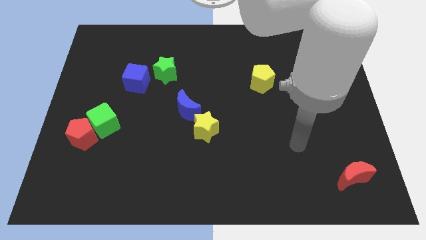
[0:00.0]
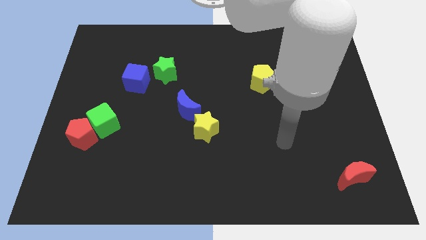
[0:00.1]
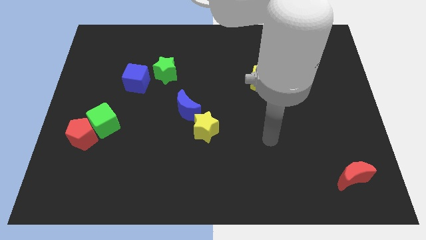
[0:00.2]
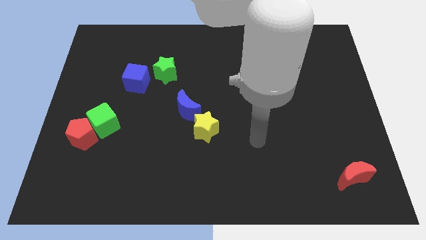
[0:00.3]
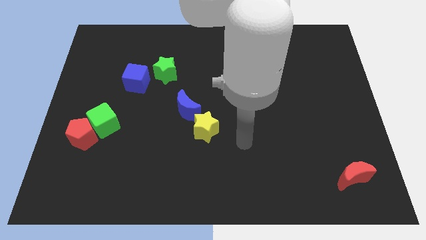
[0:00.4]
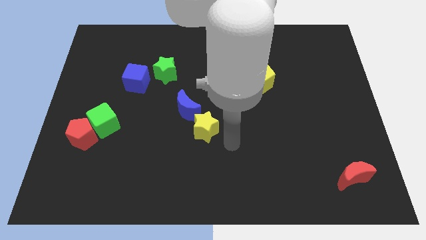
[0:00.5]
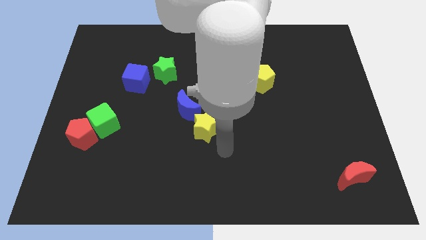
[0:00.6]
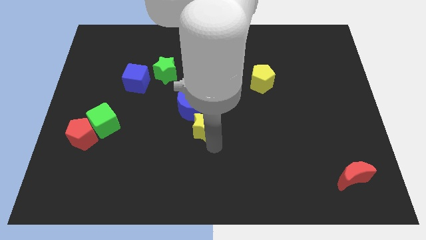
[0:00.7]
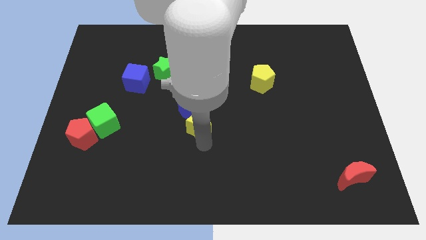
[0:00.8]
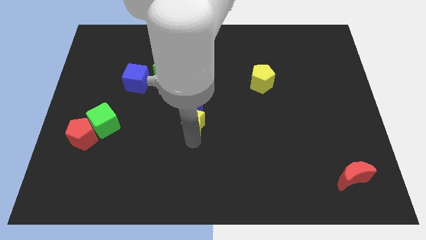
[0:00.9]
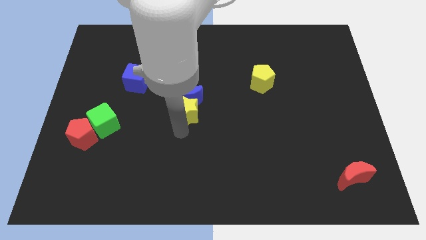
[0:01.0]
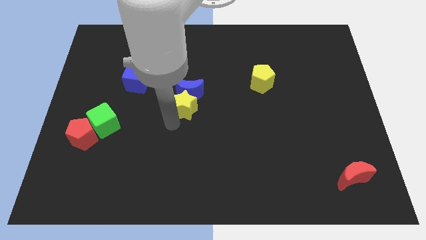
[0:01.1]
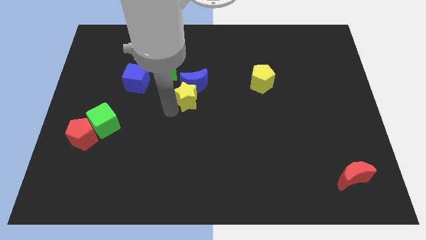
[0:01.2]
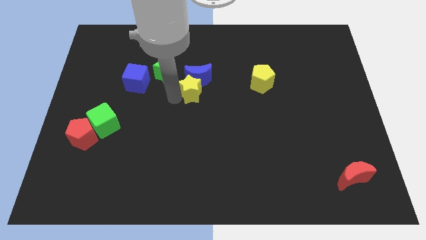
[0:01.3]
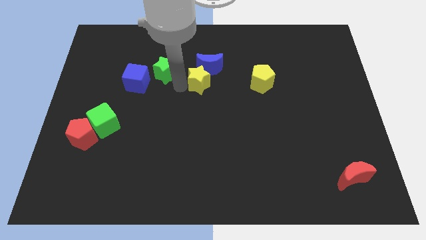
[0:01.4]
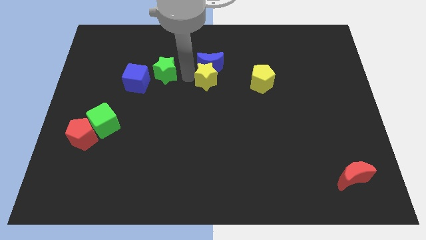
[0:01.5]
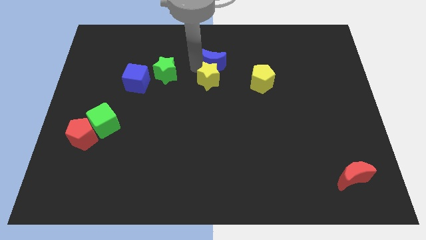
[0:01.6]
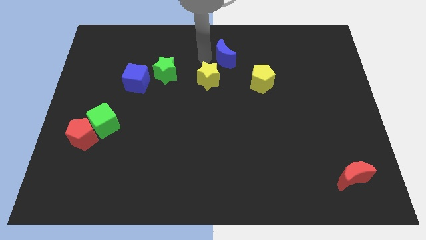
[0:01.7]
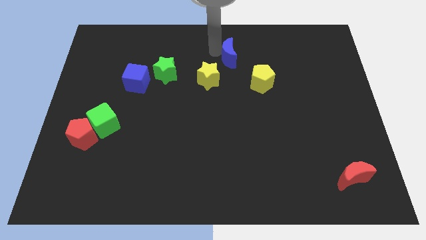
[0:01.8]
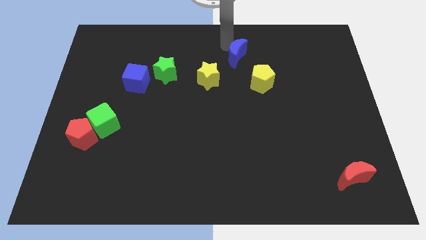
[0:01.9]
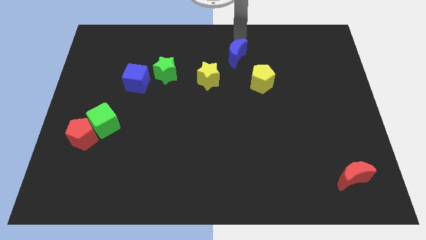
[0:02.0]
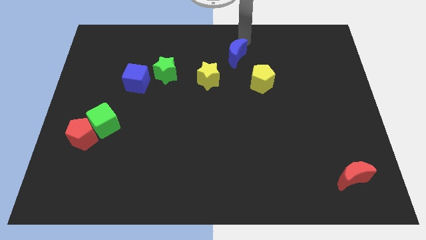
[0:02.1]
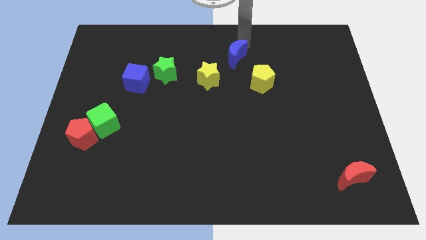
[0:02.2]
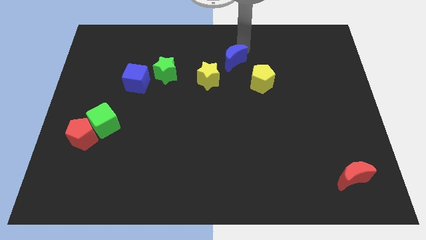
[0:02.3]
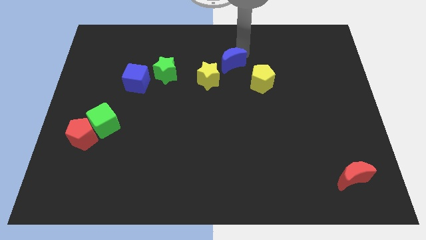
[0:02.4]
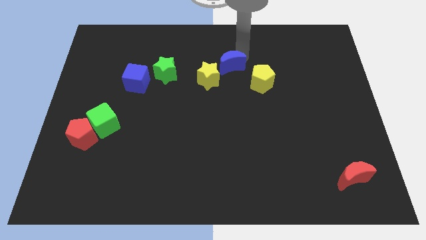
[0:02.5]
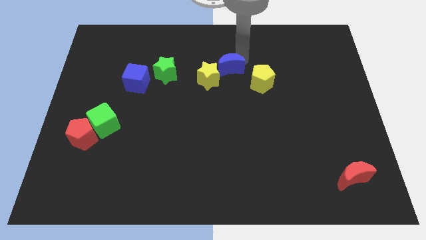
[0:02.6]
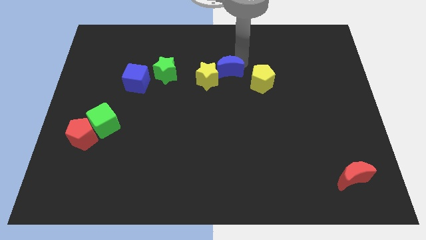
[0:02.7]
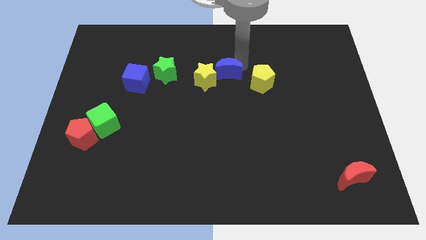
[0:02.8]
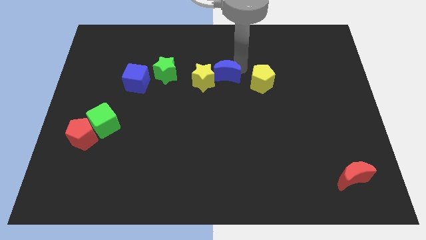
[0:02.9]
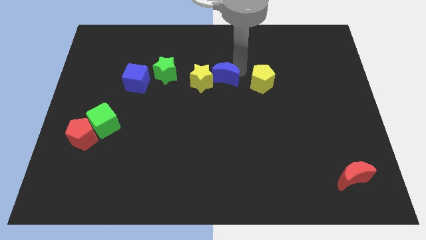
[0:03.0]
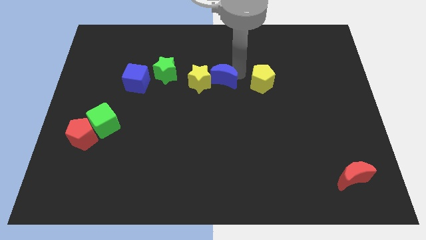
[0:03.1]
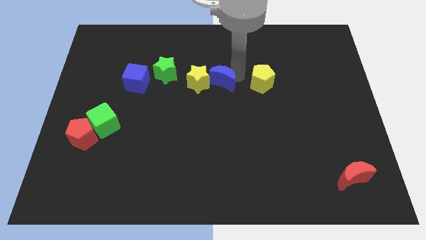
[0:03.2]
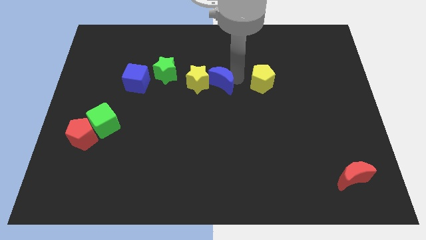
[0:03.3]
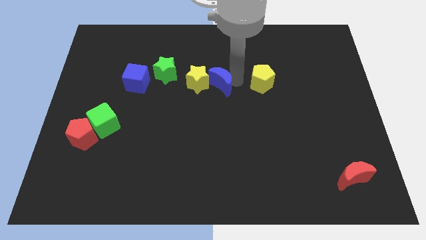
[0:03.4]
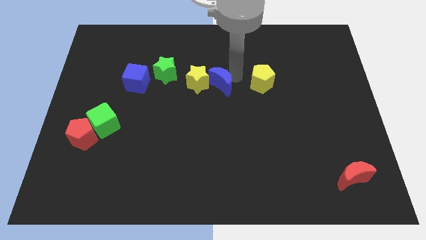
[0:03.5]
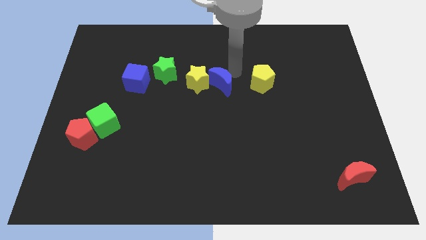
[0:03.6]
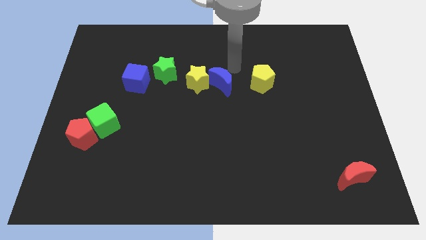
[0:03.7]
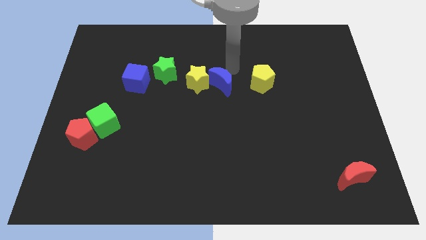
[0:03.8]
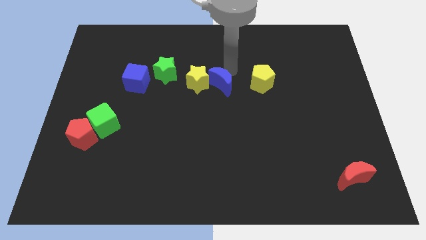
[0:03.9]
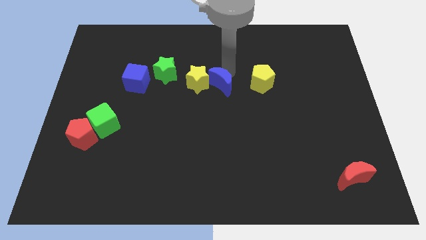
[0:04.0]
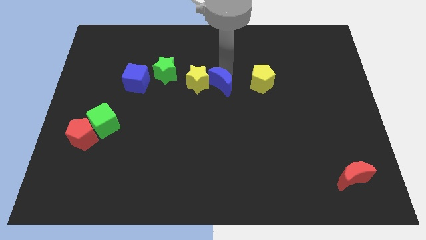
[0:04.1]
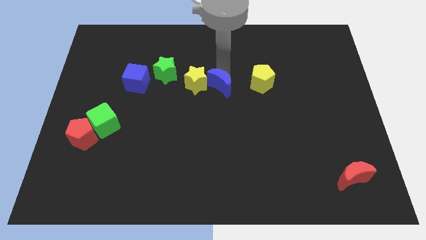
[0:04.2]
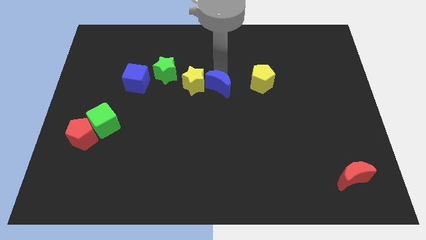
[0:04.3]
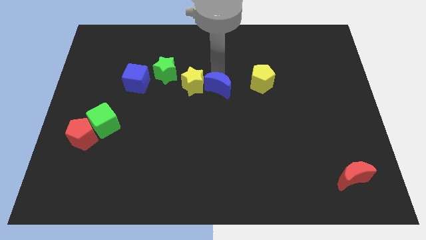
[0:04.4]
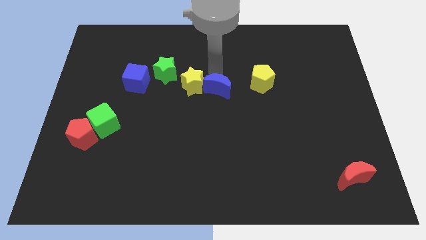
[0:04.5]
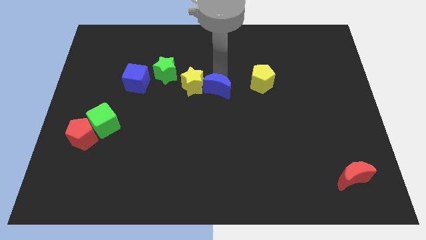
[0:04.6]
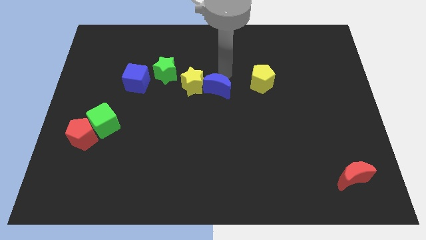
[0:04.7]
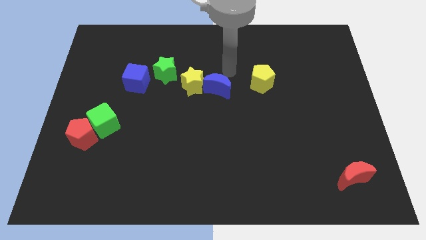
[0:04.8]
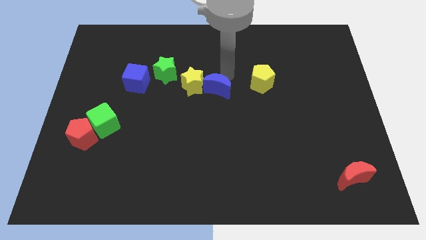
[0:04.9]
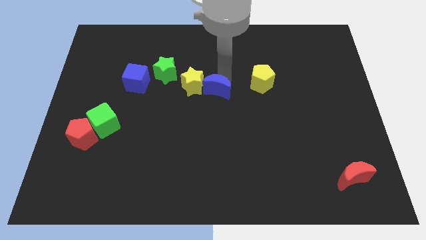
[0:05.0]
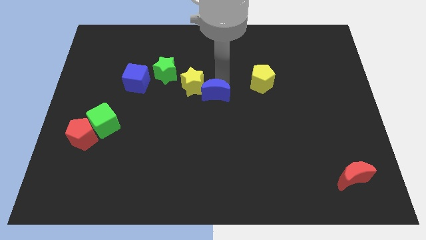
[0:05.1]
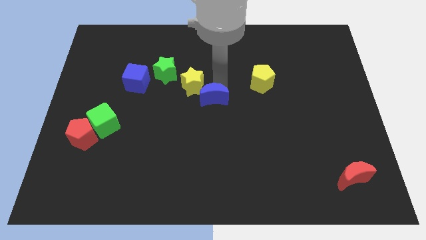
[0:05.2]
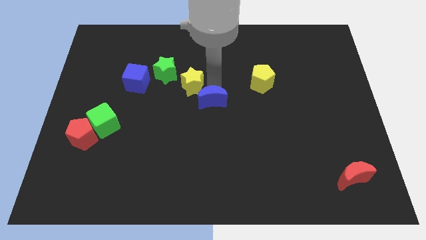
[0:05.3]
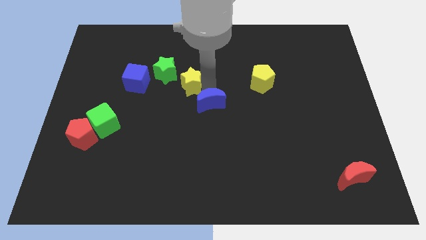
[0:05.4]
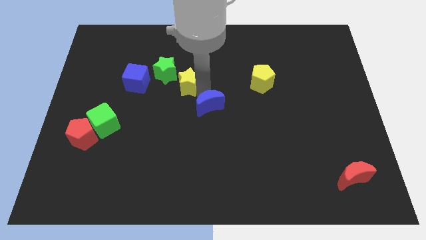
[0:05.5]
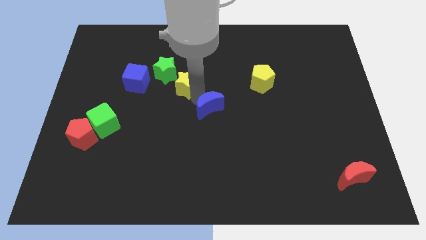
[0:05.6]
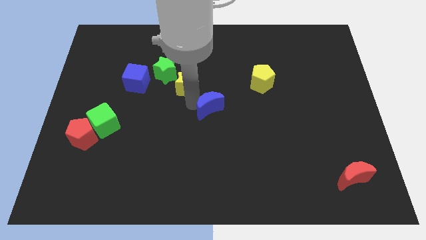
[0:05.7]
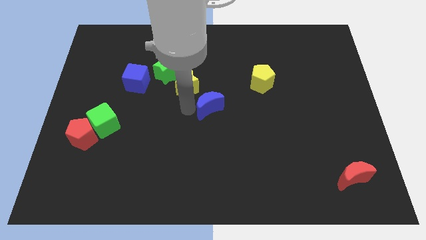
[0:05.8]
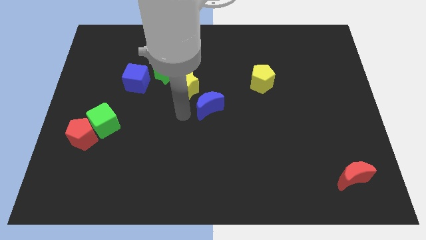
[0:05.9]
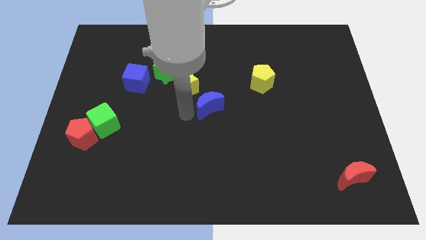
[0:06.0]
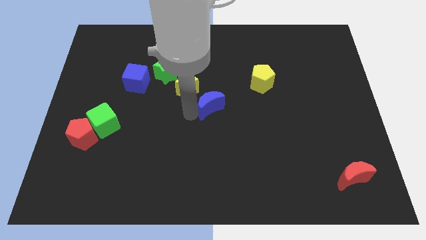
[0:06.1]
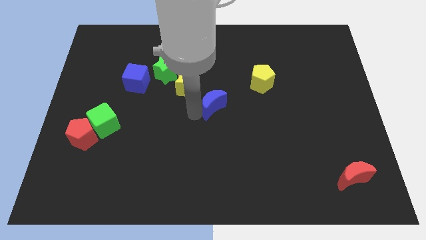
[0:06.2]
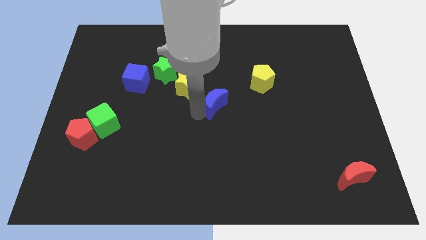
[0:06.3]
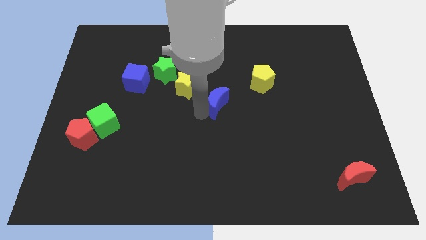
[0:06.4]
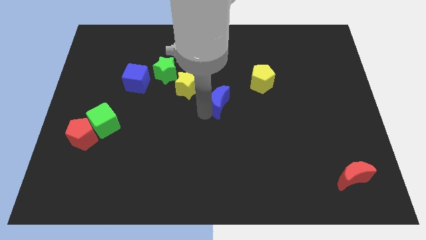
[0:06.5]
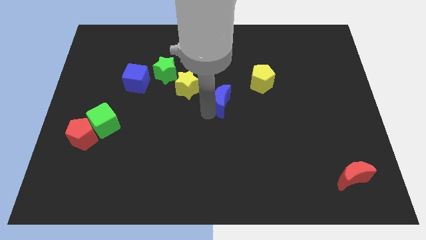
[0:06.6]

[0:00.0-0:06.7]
slide the blue moon to the bottom left of the yellow pentagon
